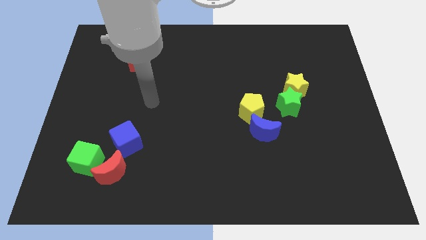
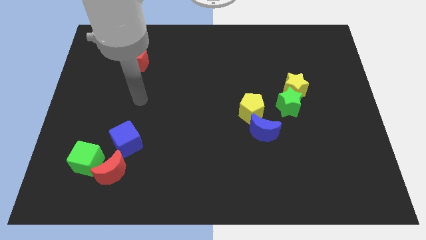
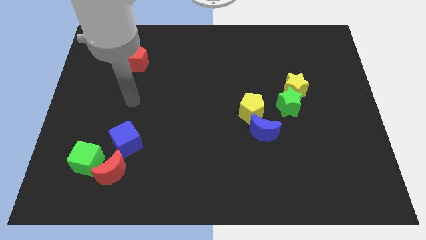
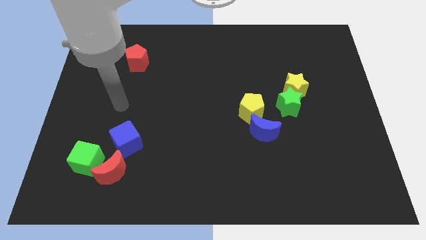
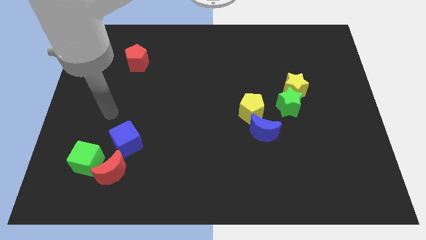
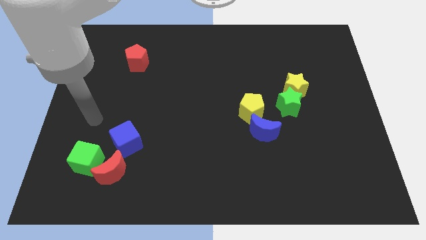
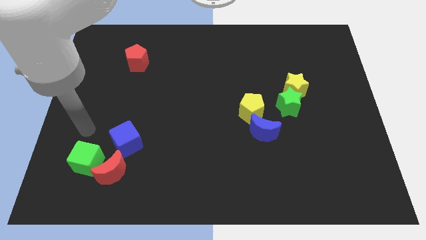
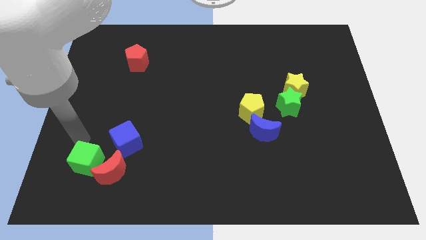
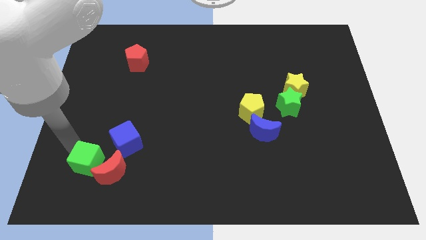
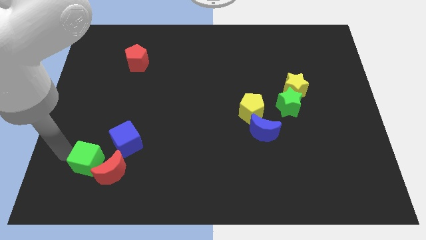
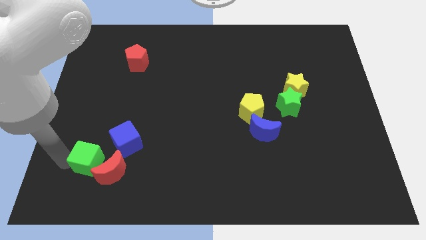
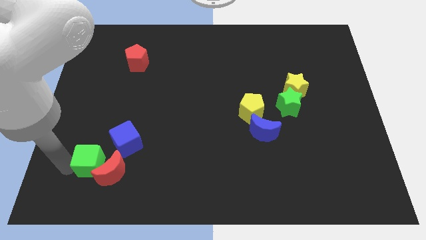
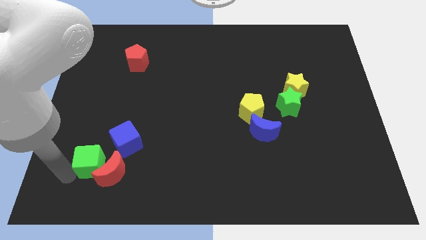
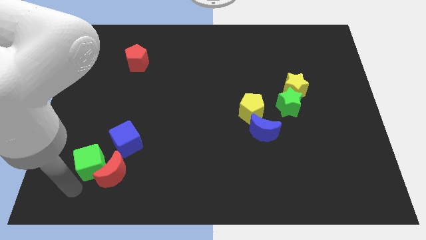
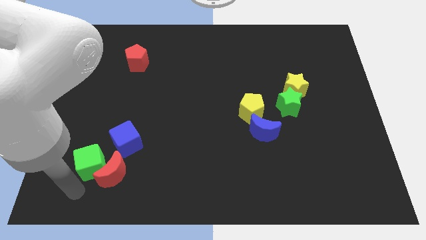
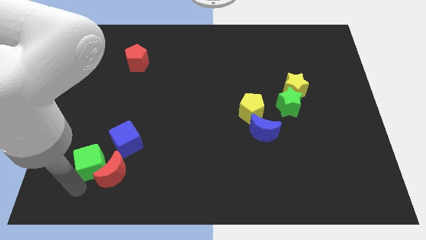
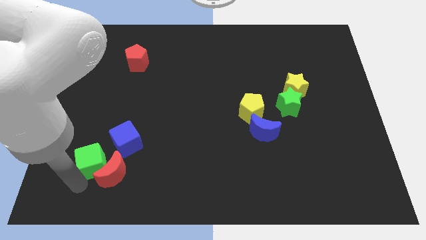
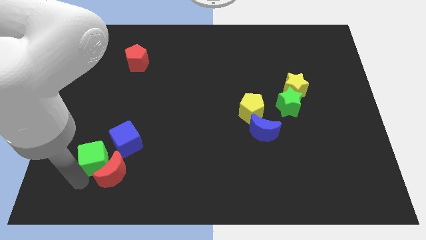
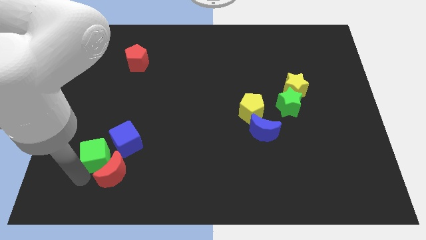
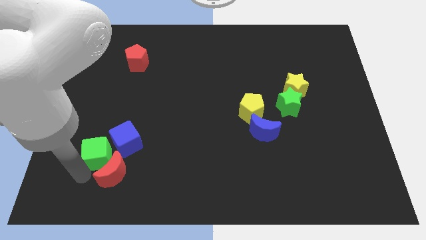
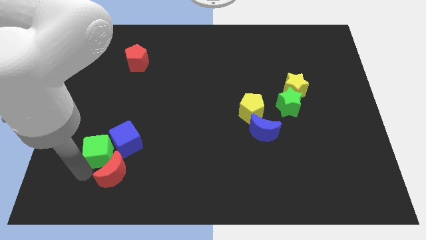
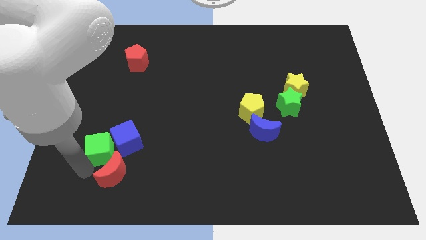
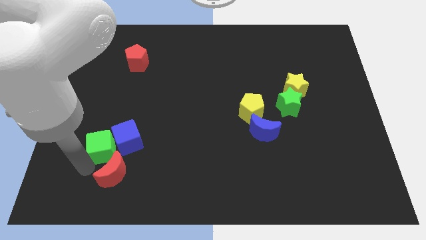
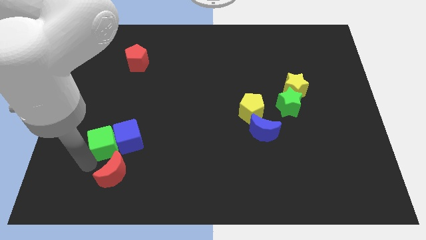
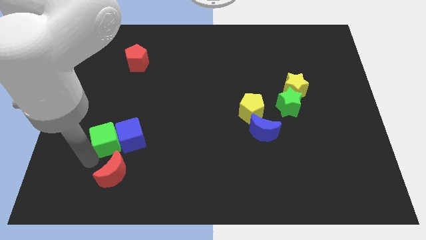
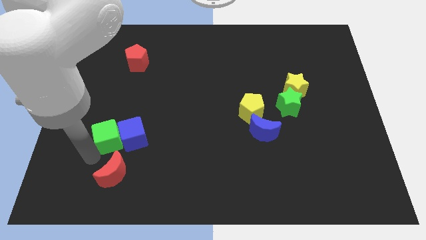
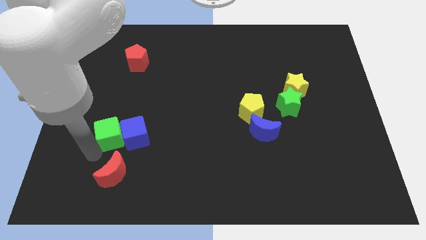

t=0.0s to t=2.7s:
slide the green cube upwards and right slightly

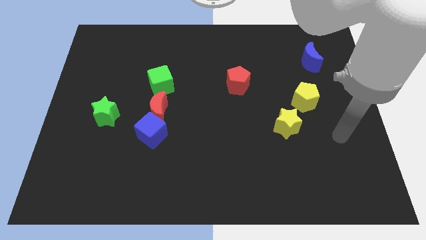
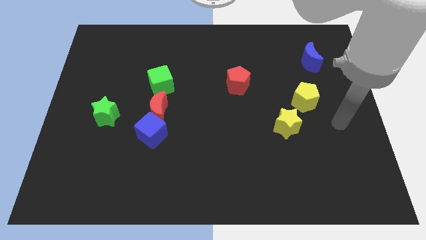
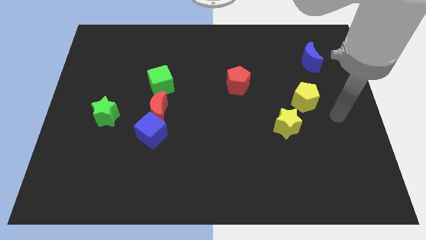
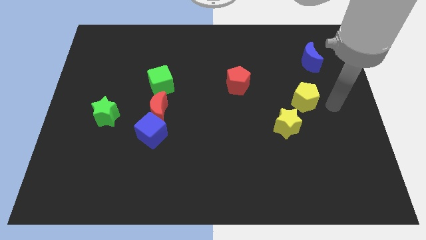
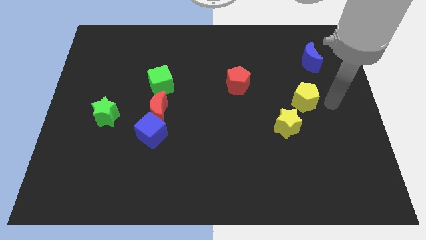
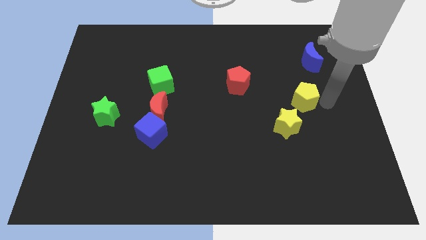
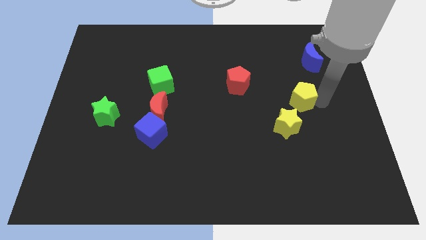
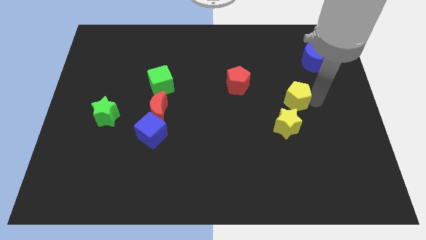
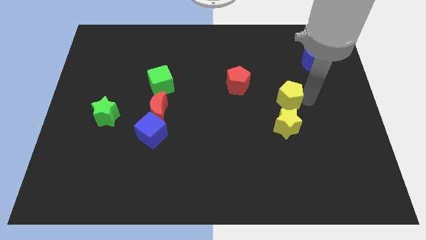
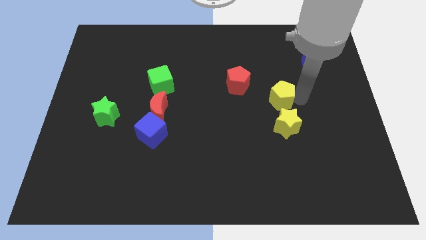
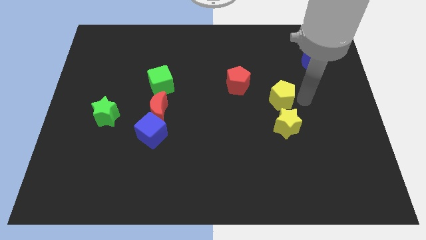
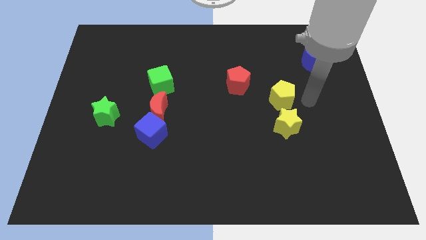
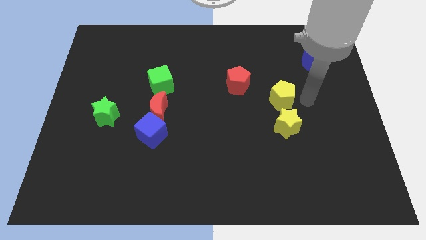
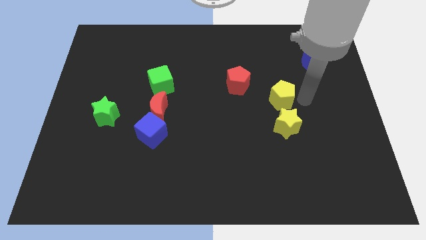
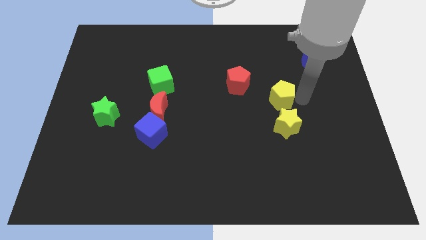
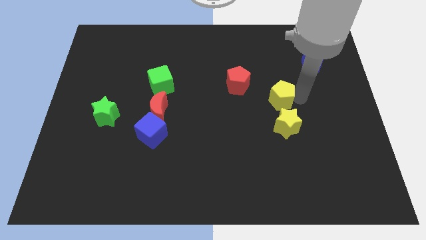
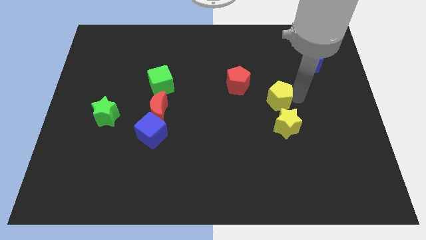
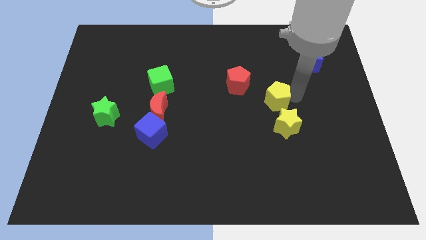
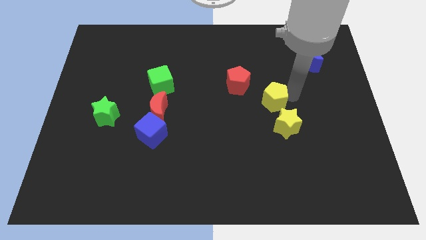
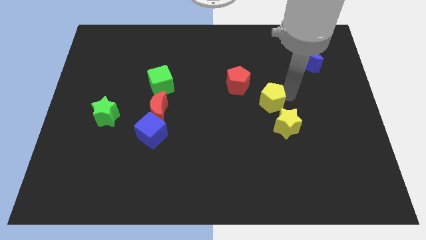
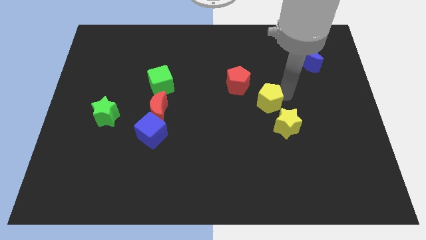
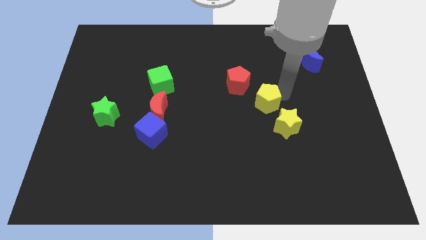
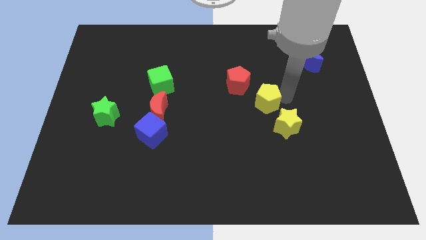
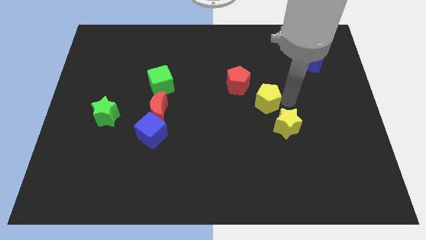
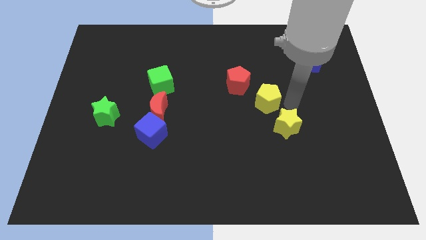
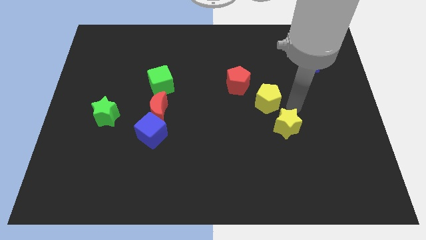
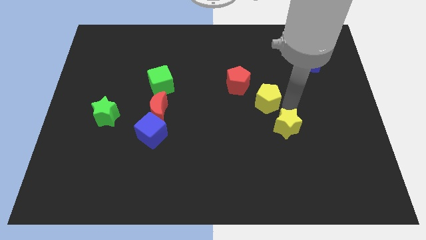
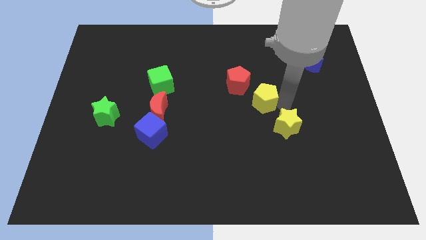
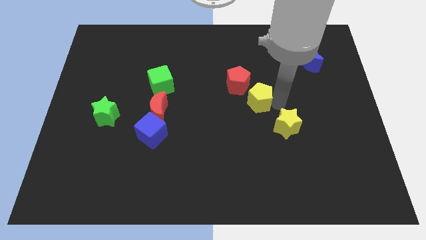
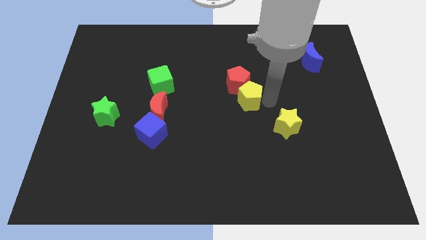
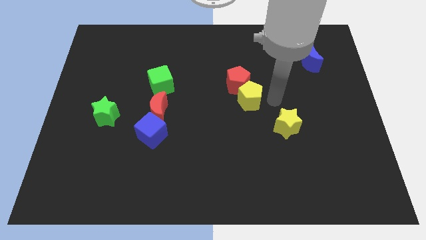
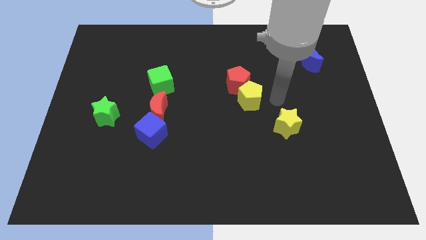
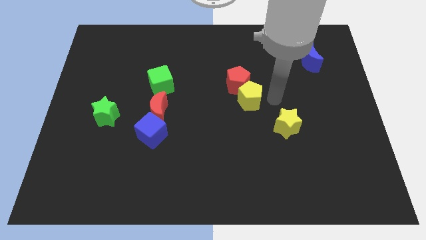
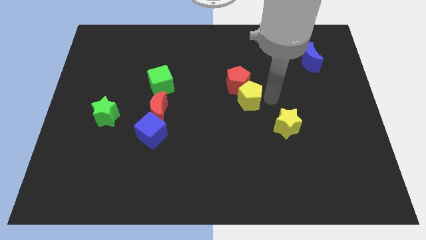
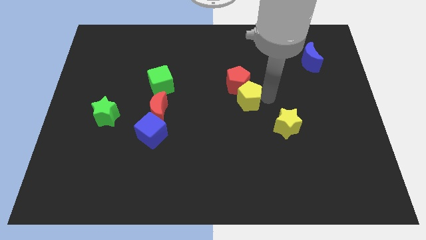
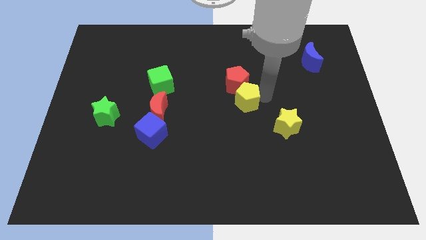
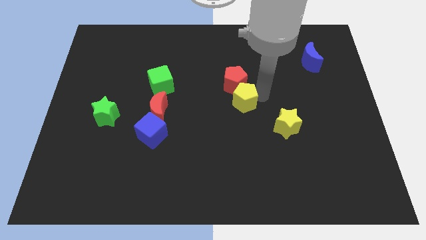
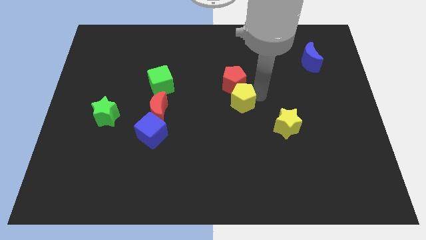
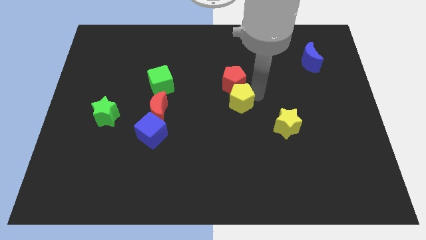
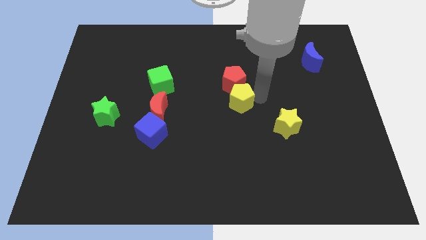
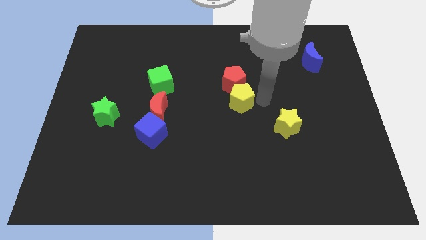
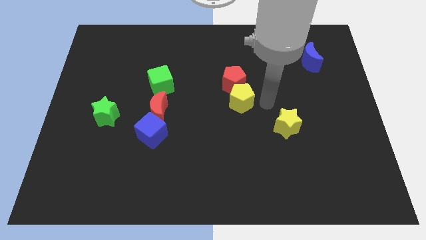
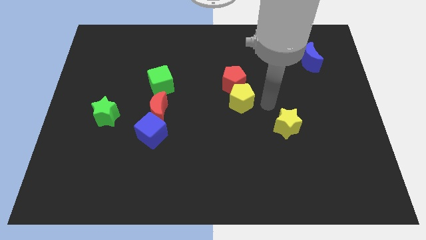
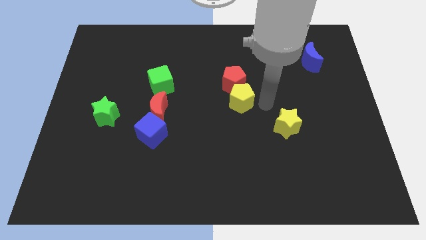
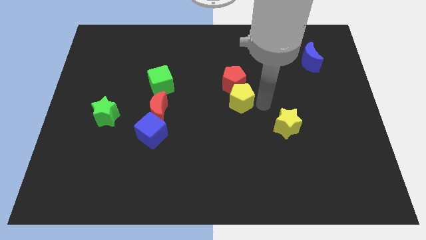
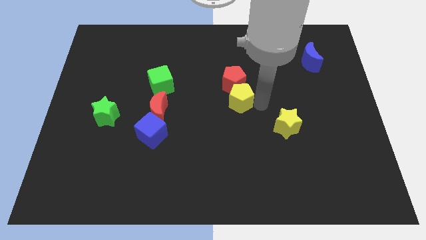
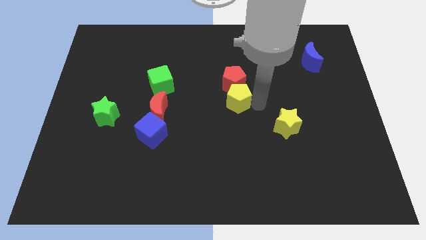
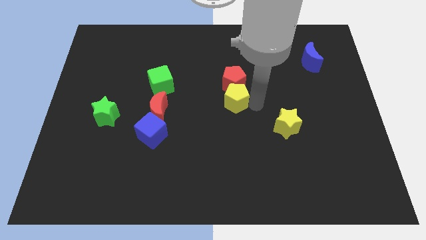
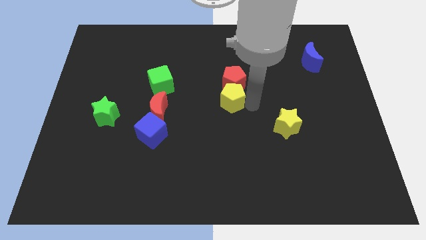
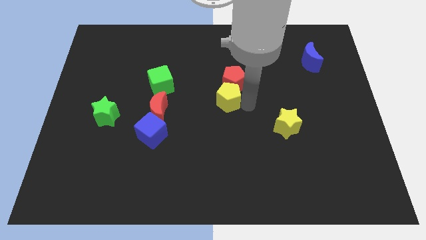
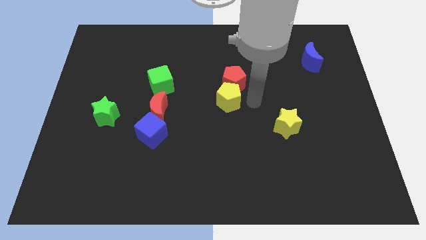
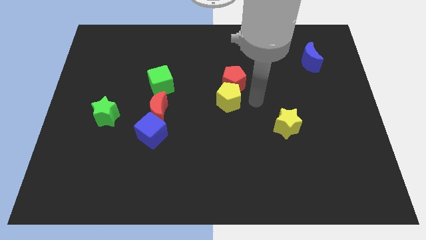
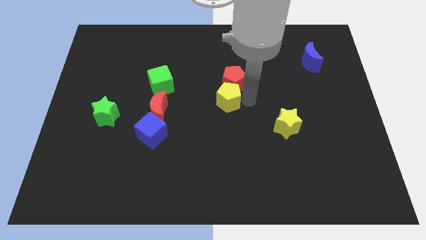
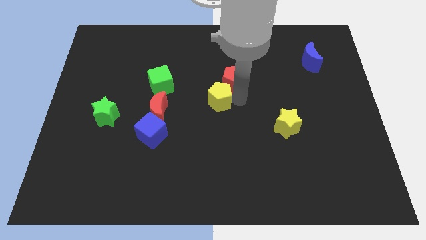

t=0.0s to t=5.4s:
slide the yellow pentagon left
